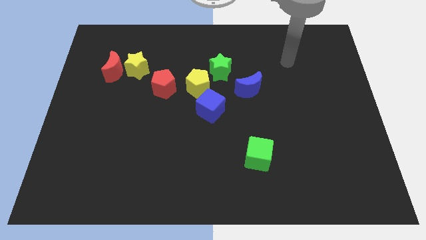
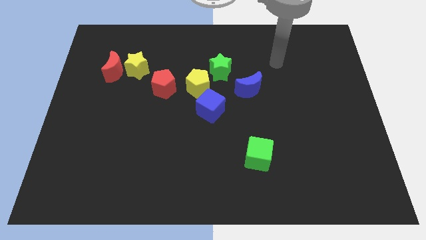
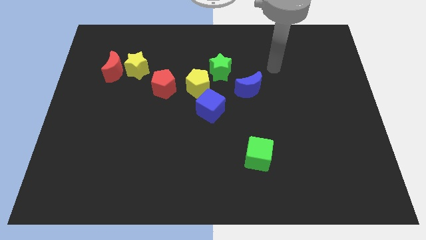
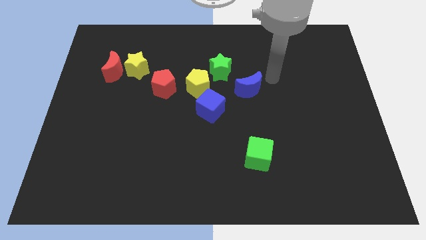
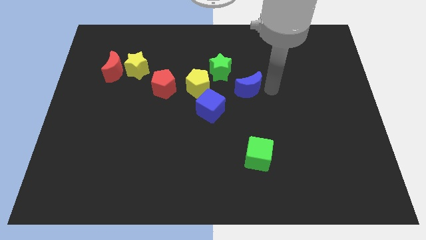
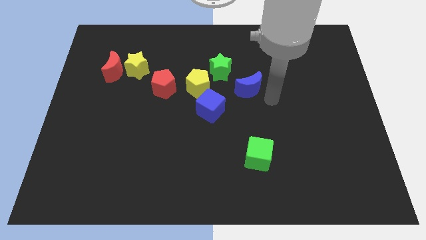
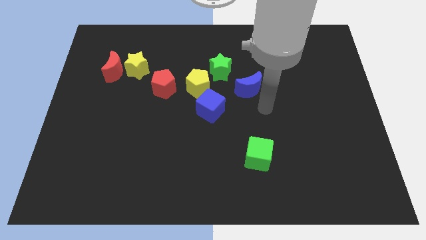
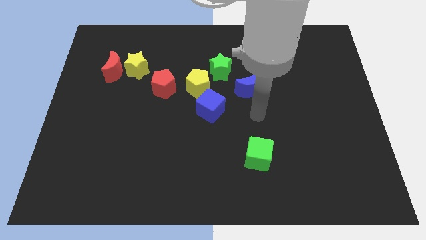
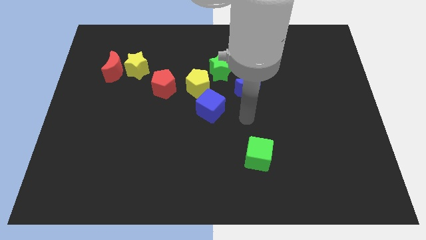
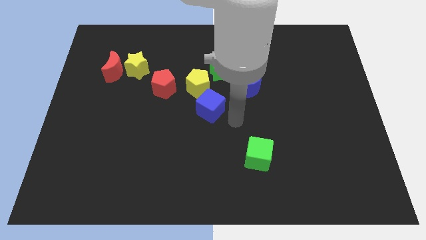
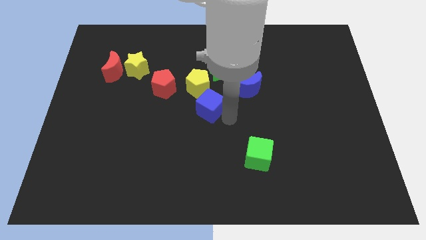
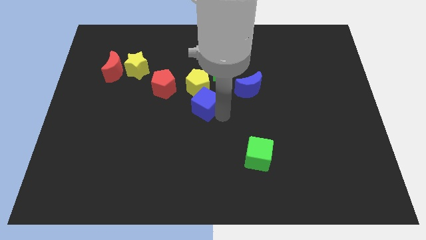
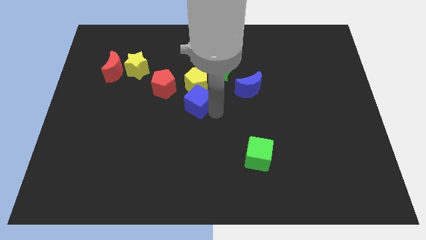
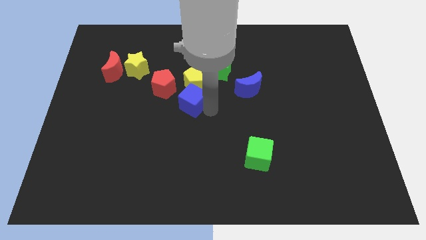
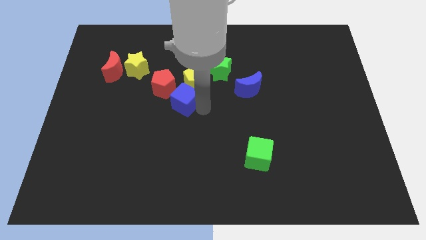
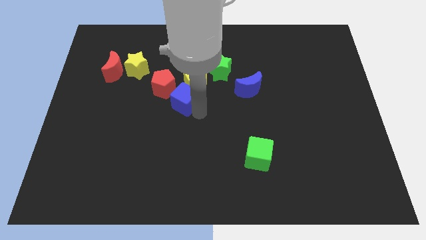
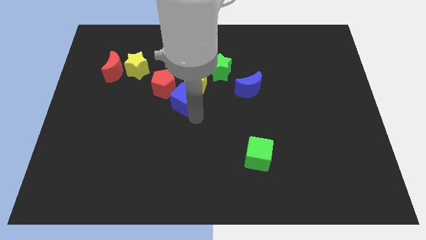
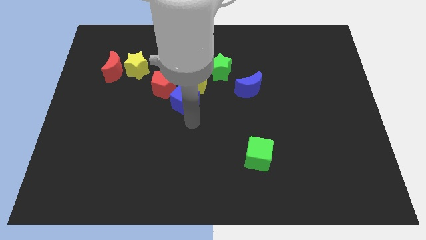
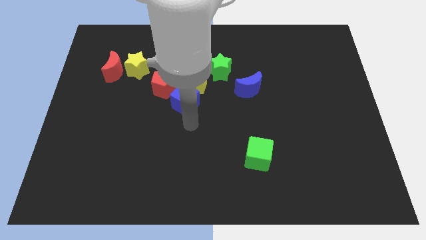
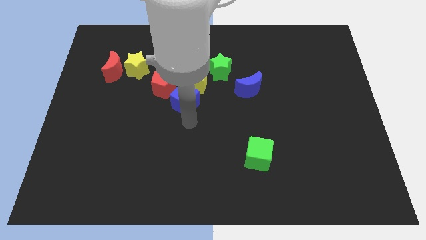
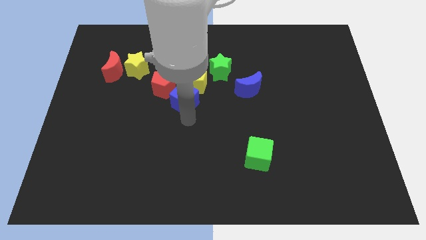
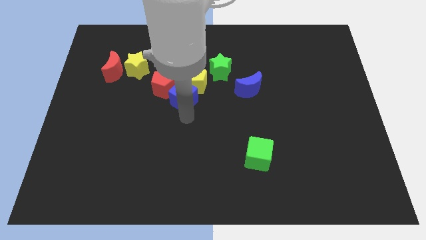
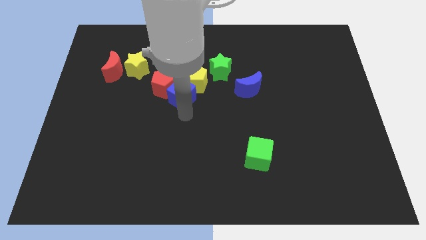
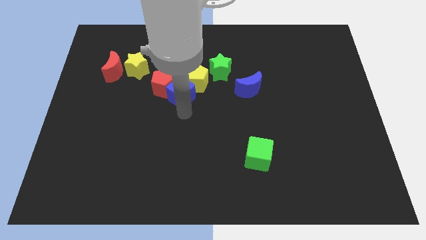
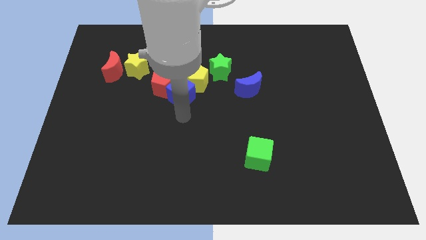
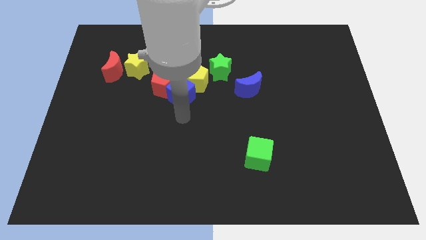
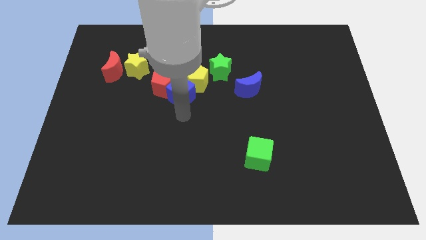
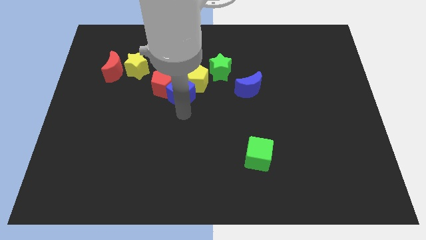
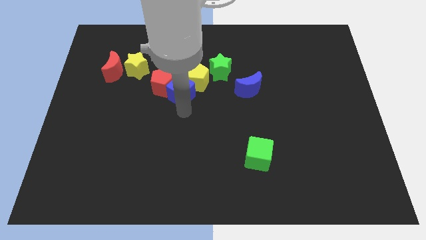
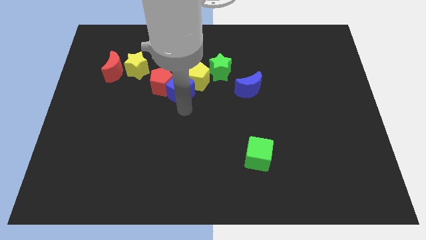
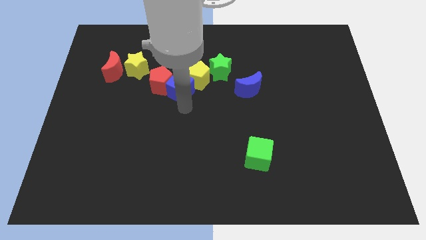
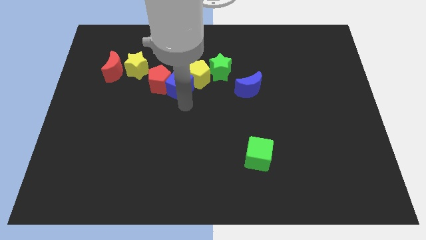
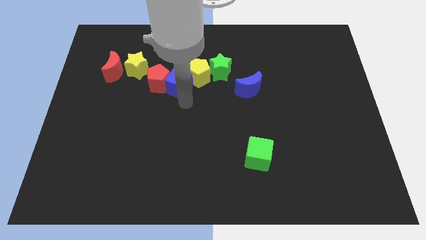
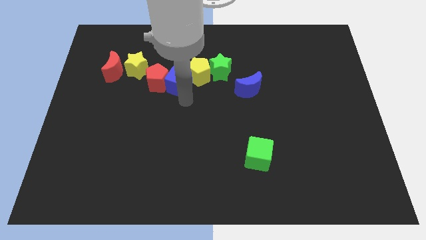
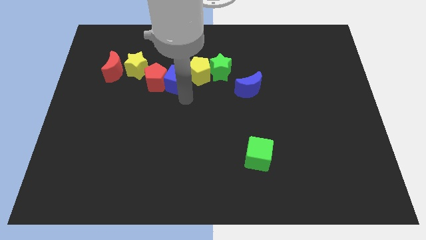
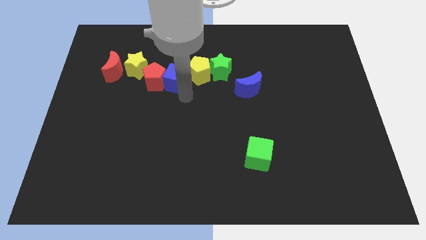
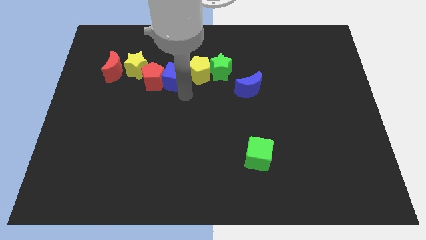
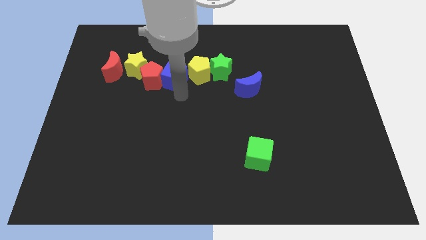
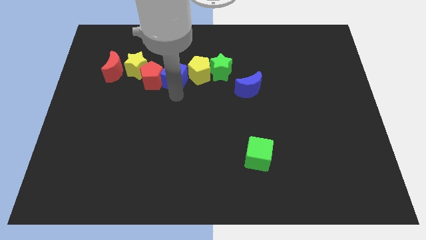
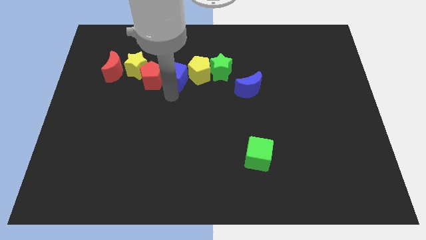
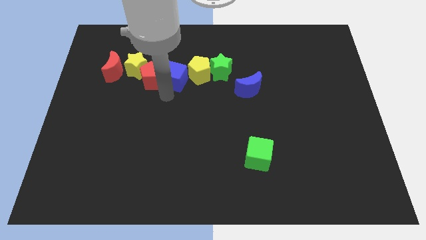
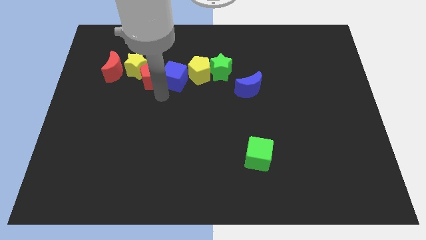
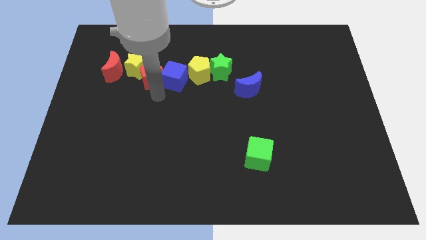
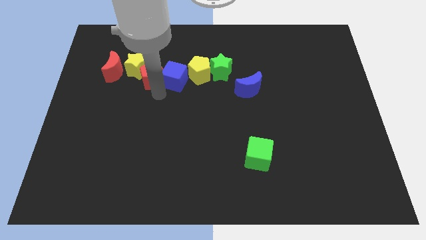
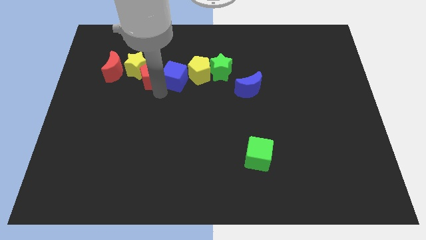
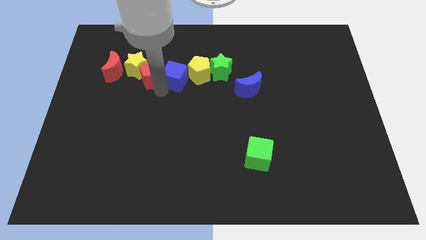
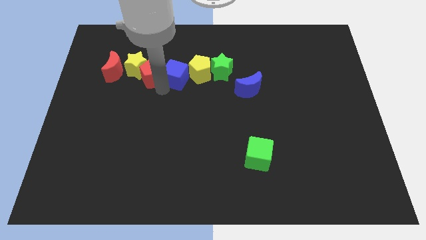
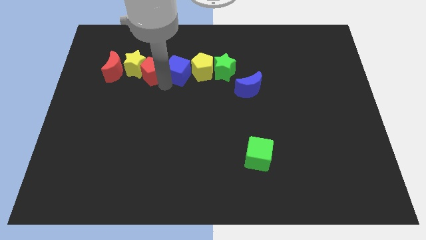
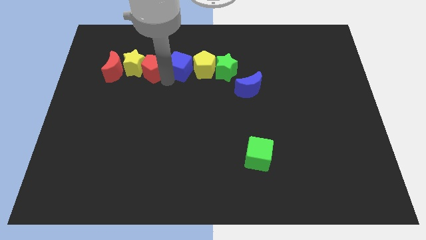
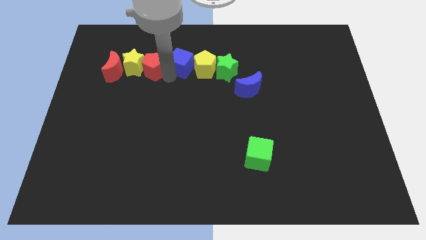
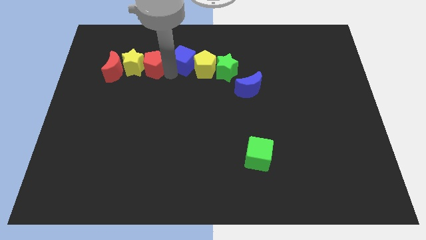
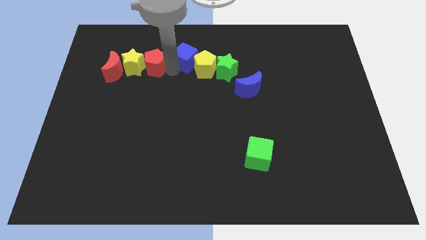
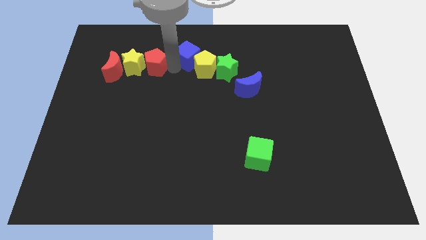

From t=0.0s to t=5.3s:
move the blue cube above the yellow pentagon

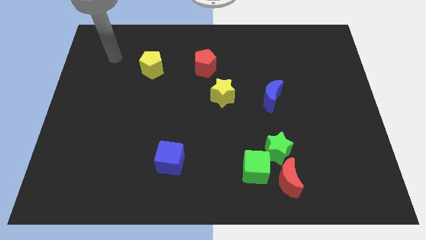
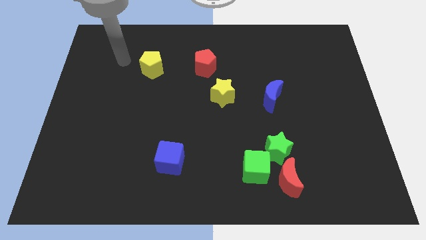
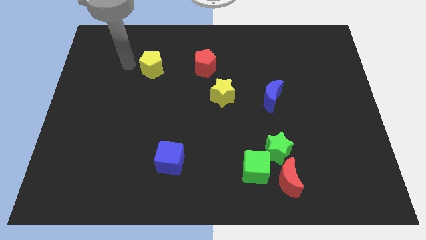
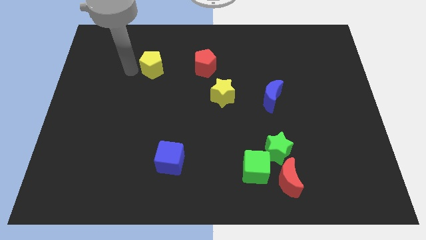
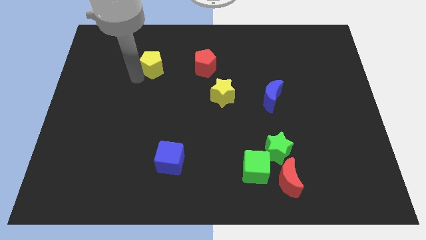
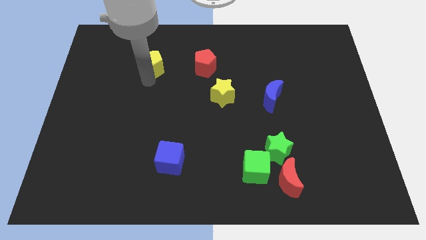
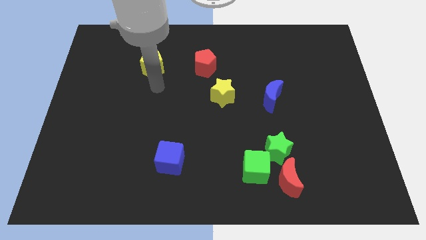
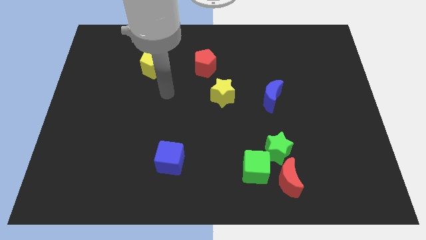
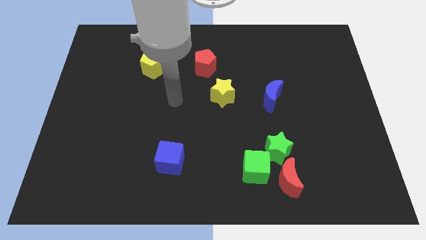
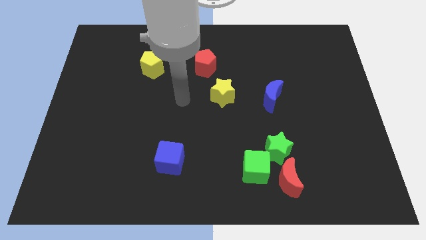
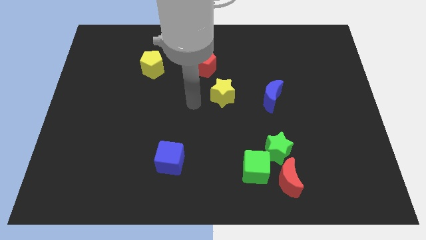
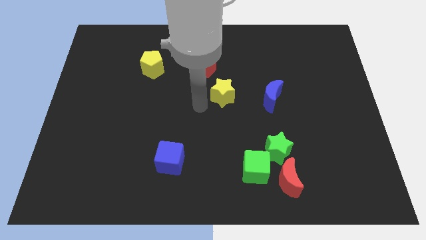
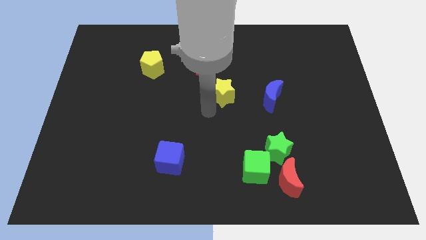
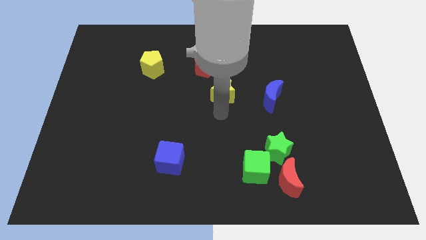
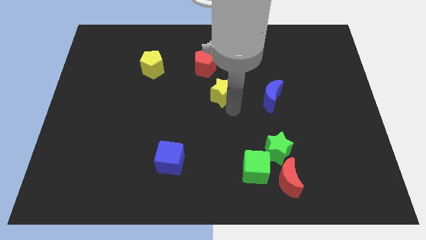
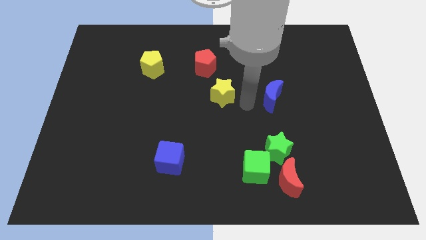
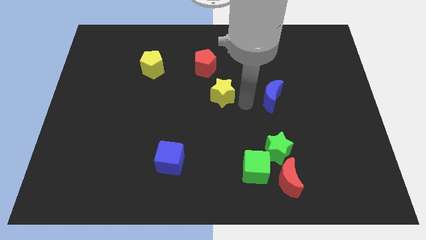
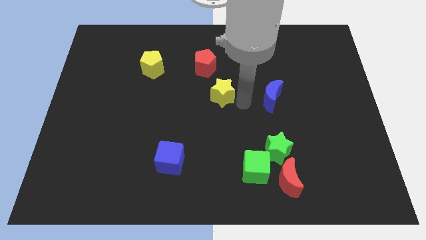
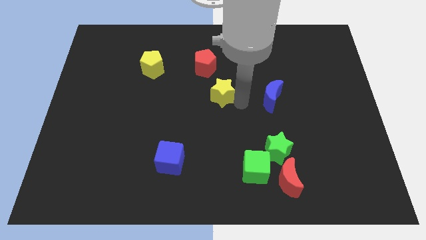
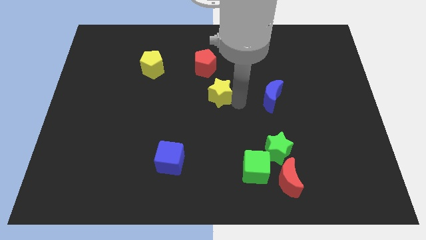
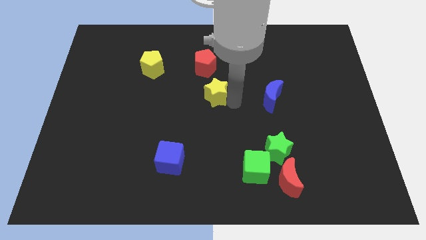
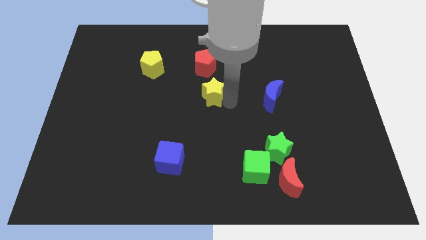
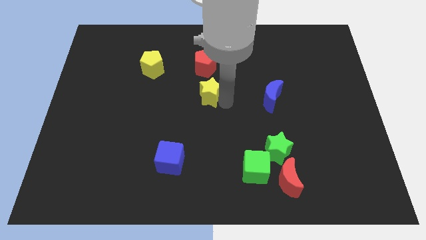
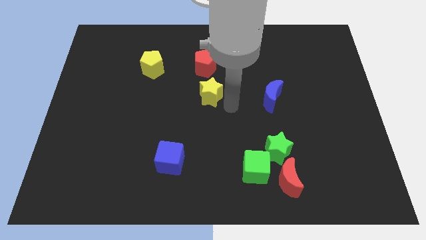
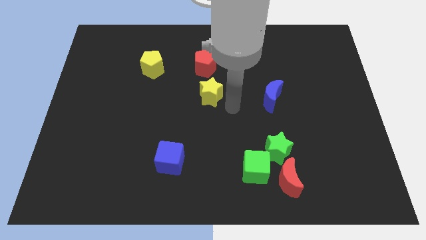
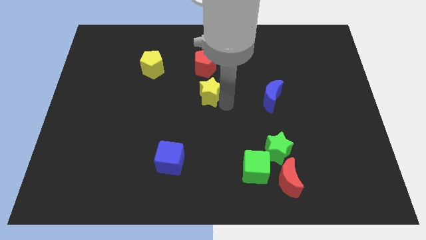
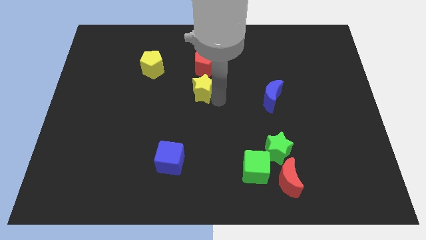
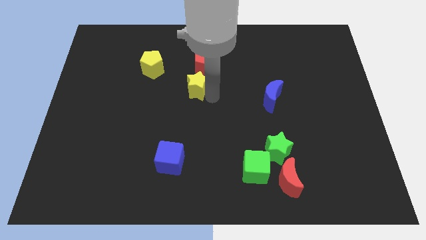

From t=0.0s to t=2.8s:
move the yellow star diagonally down and to the left of the red pentagon
